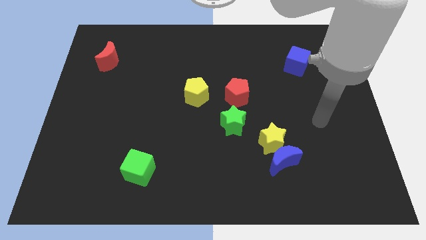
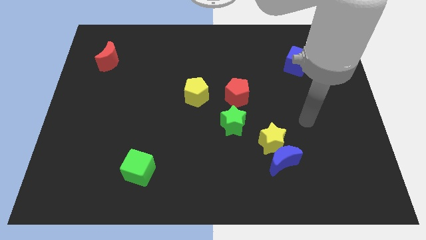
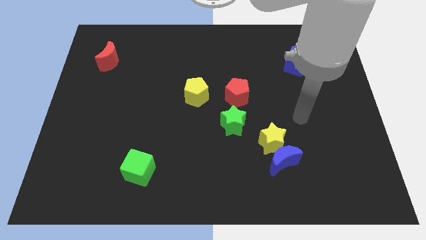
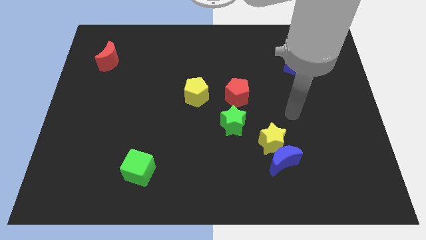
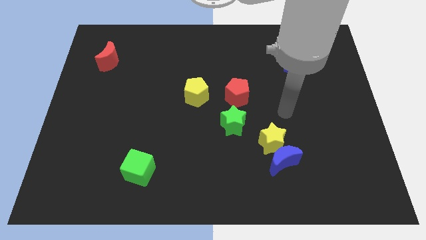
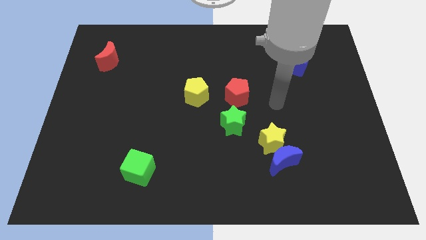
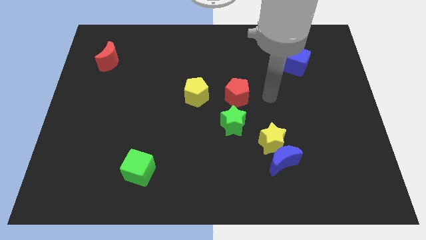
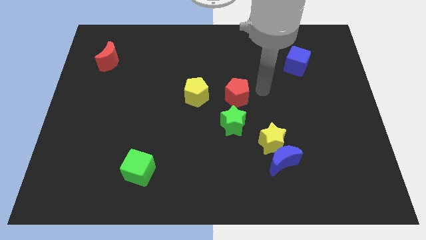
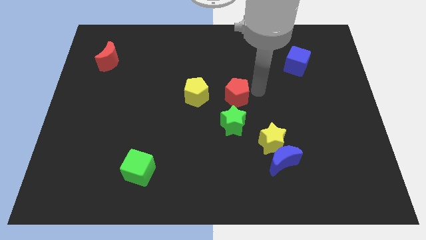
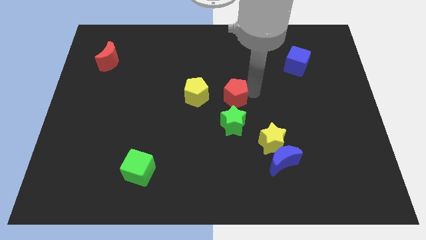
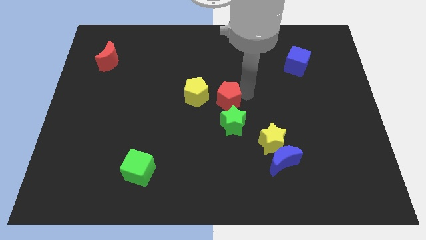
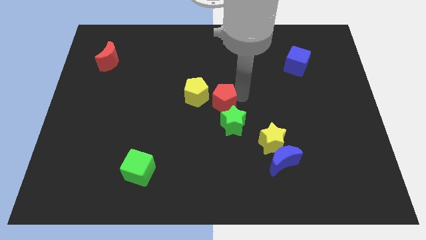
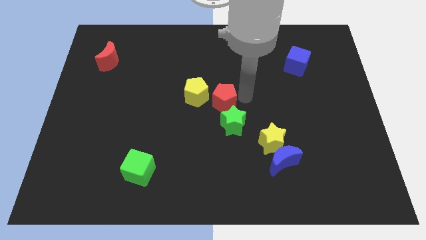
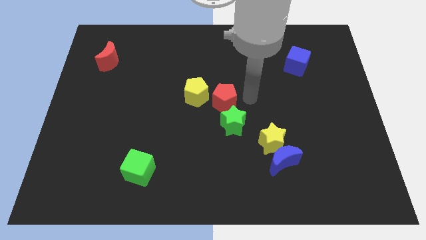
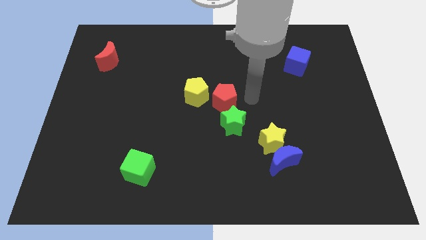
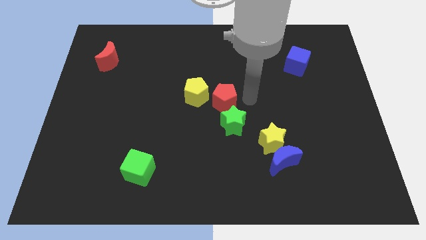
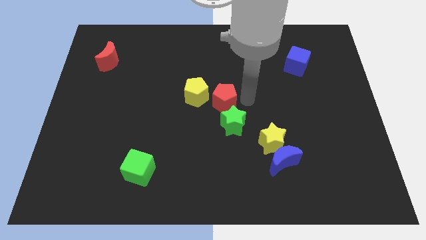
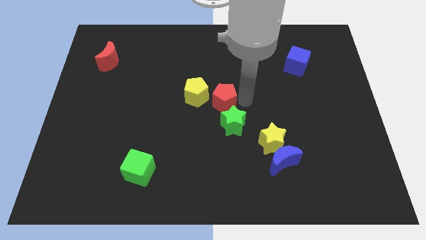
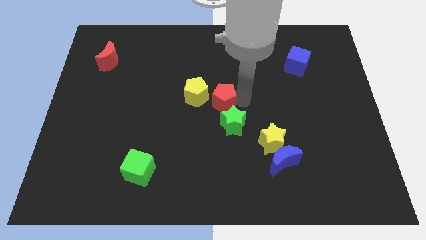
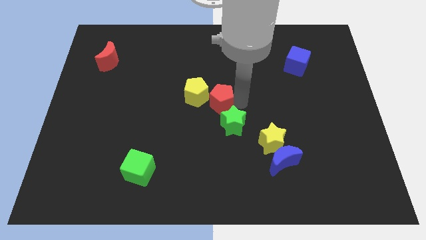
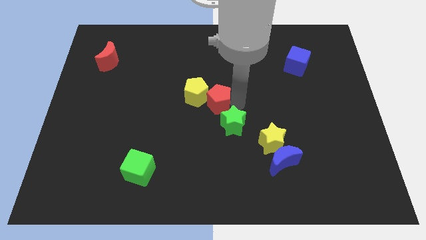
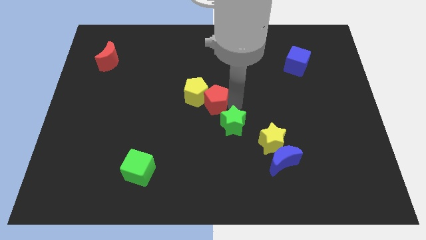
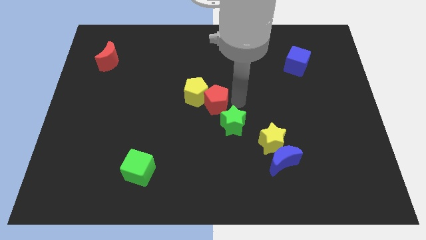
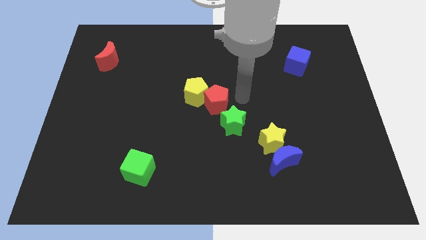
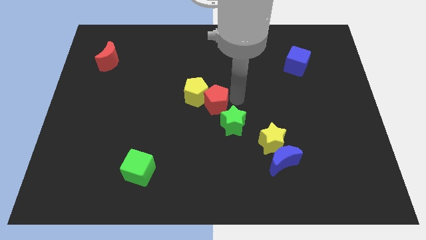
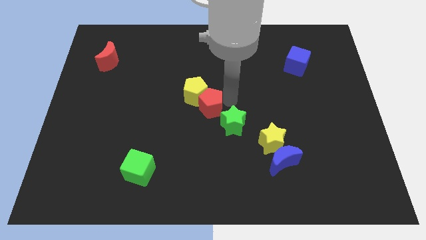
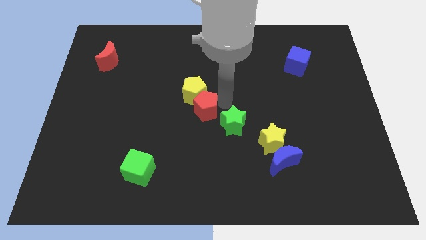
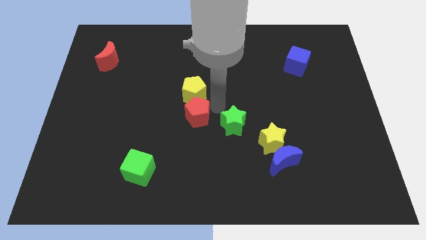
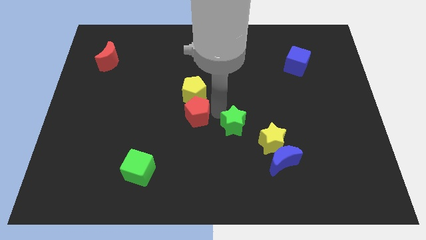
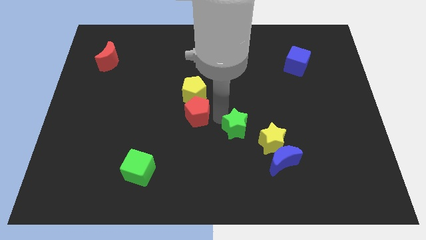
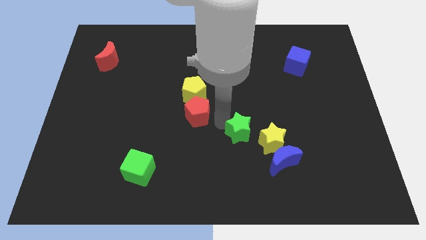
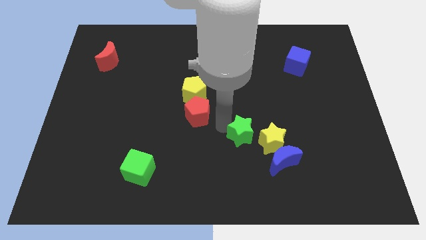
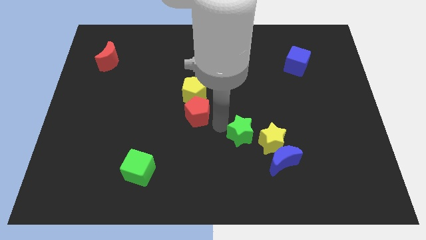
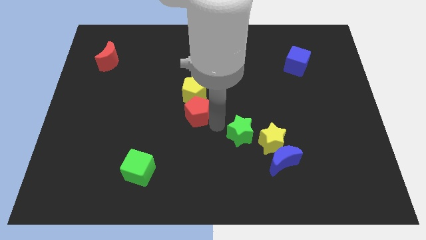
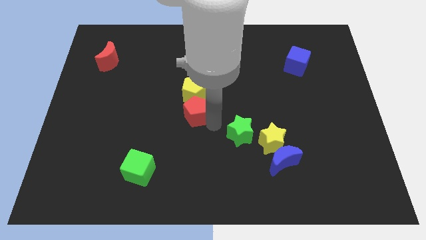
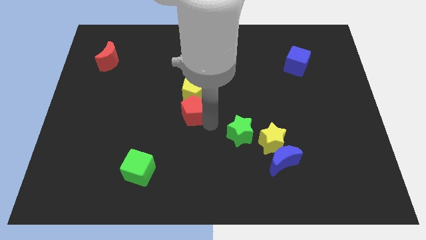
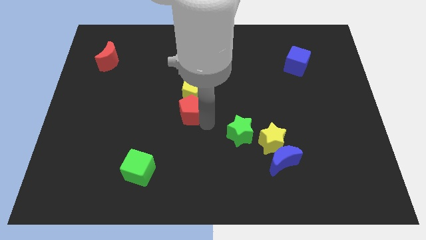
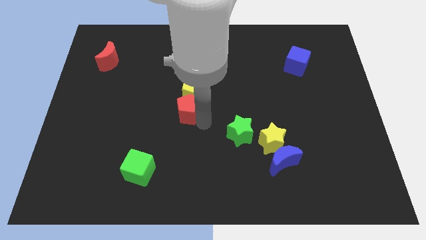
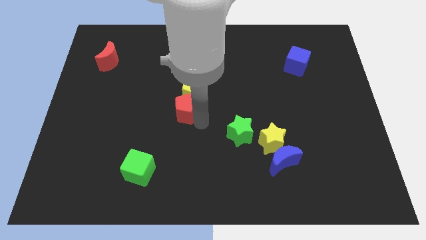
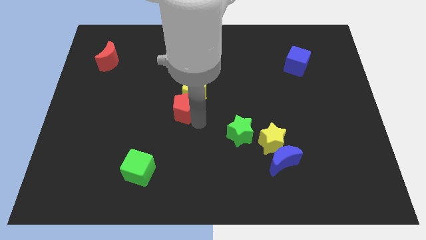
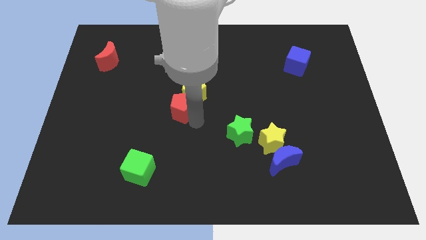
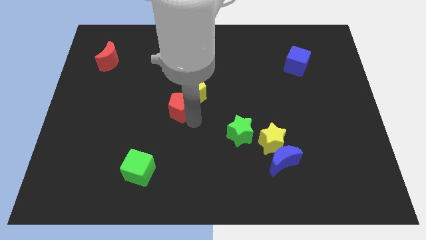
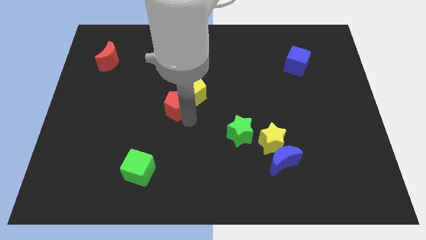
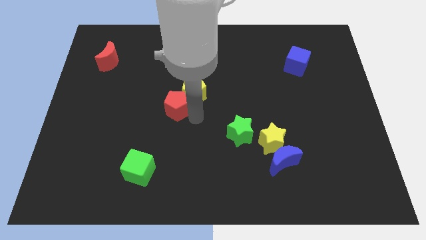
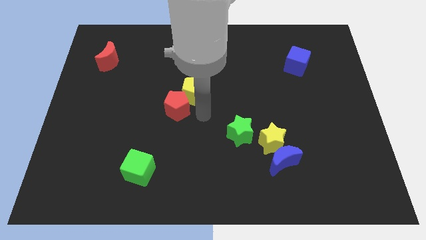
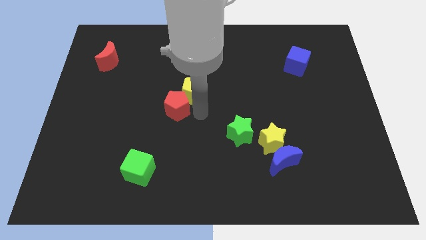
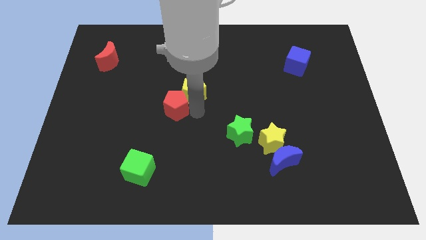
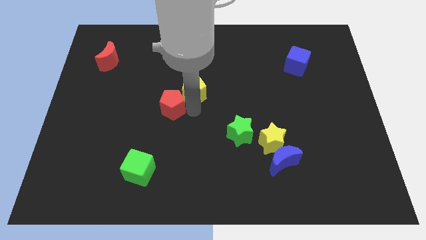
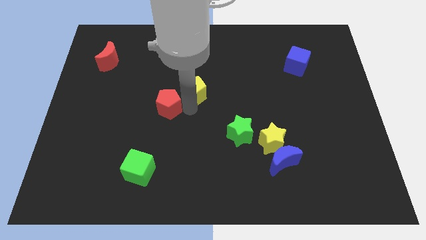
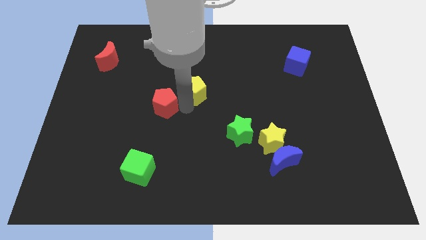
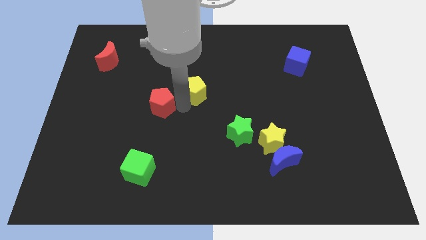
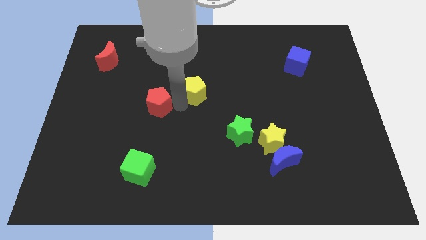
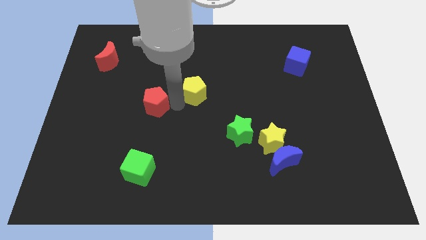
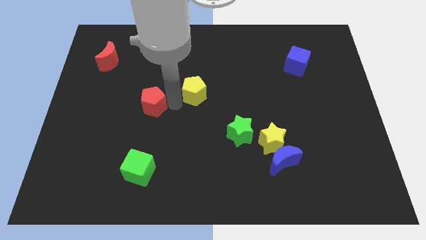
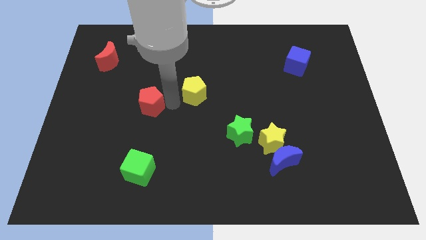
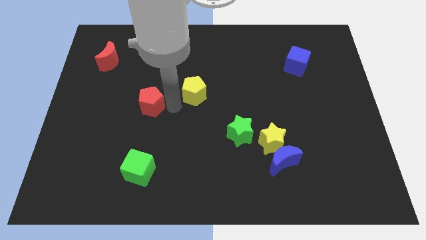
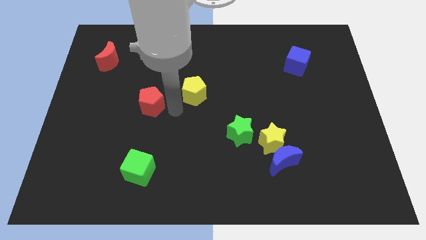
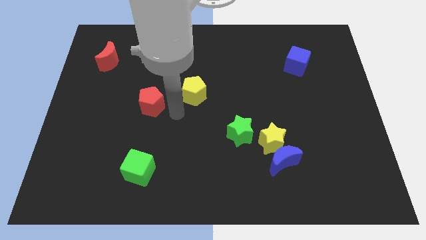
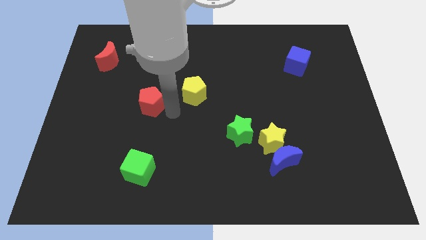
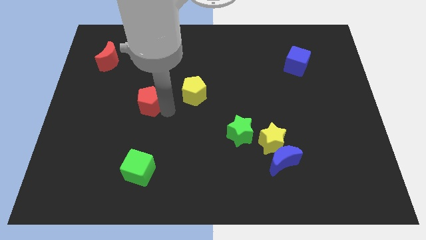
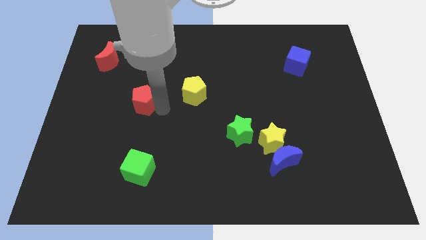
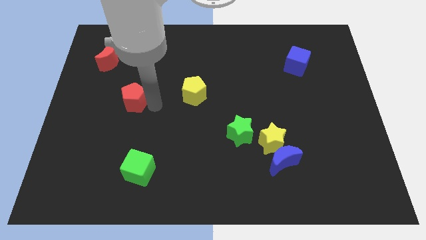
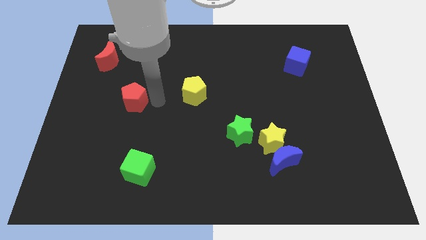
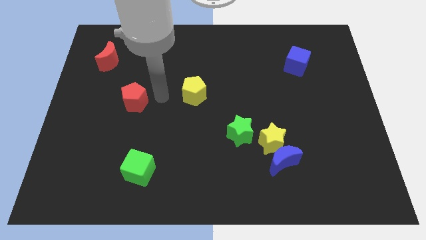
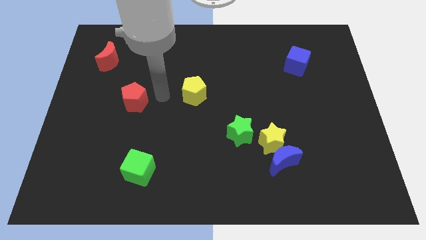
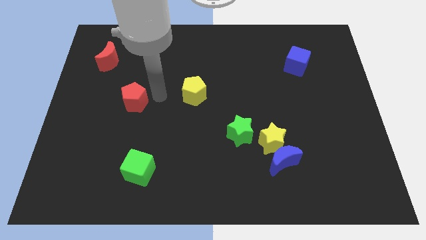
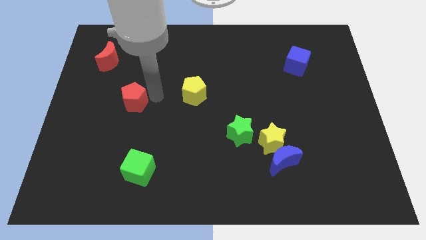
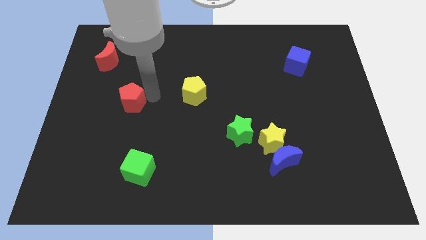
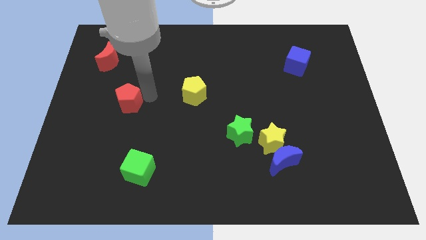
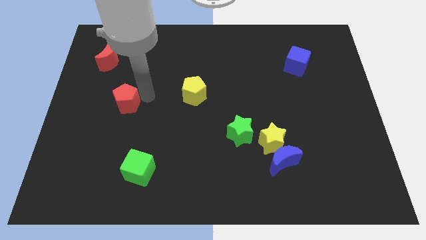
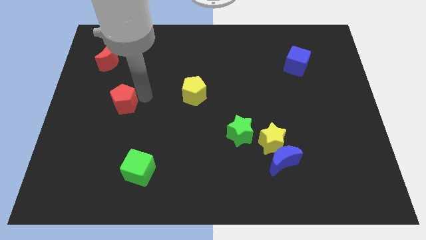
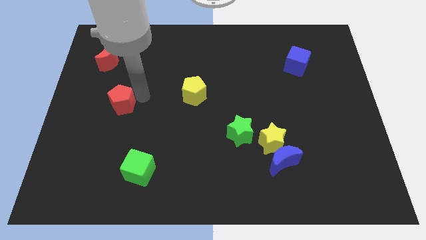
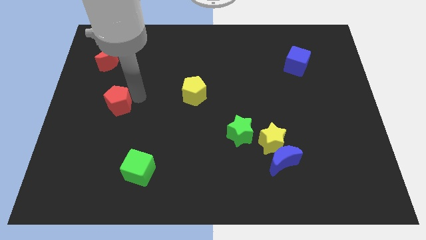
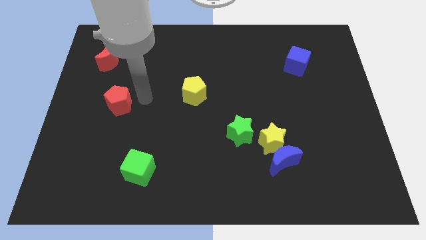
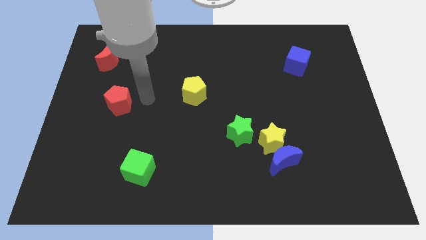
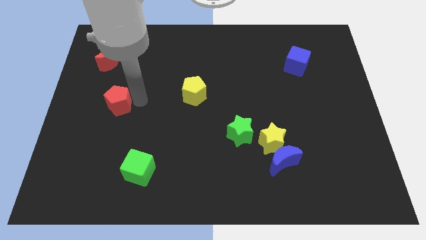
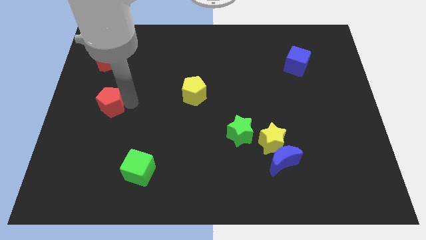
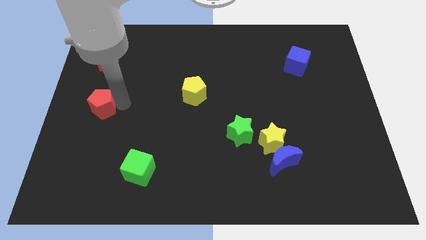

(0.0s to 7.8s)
push the red pentagon to the left side
